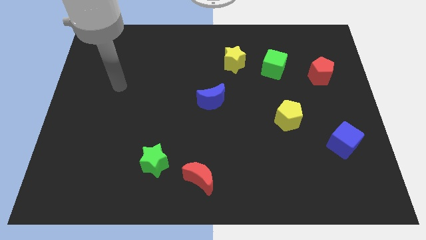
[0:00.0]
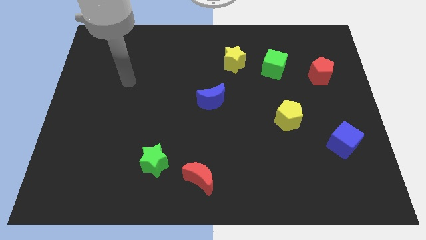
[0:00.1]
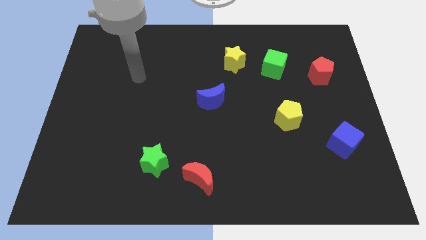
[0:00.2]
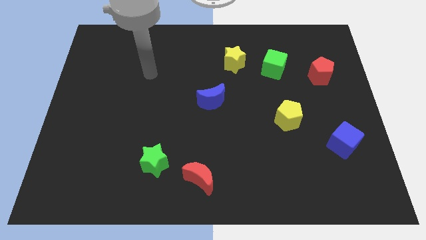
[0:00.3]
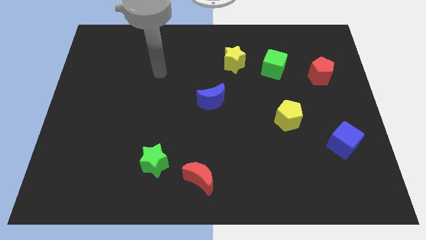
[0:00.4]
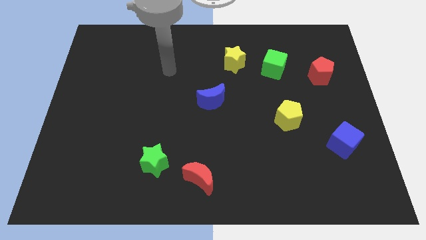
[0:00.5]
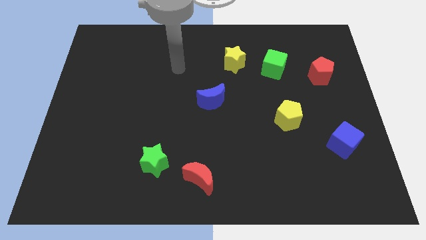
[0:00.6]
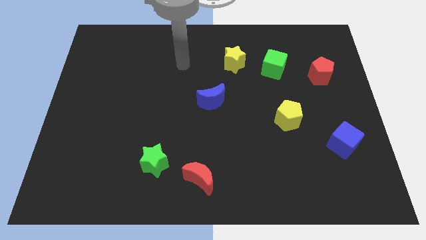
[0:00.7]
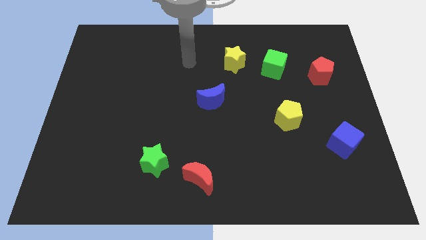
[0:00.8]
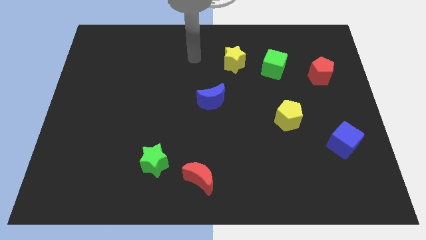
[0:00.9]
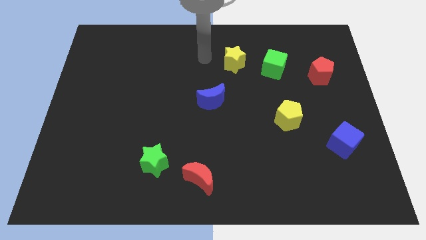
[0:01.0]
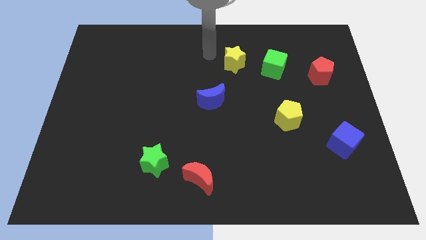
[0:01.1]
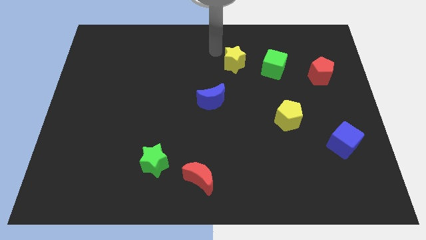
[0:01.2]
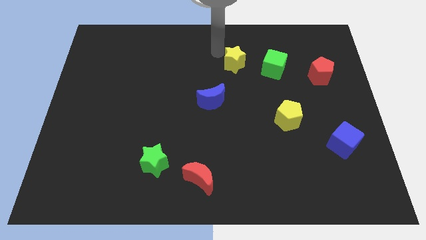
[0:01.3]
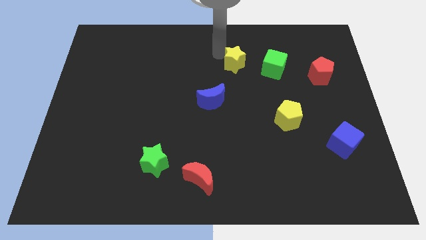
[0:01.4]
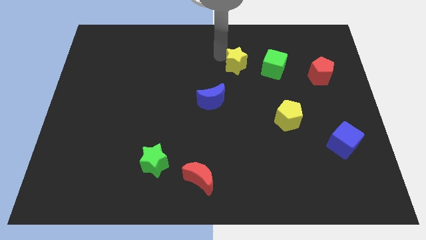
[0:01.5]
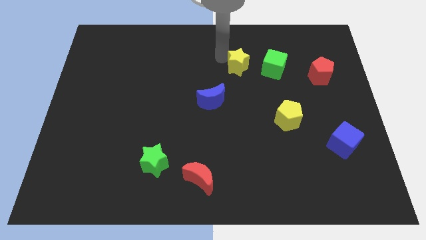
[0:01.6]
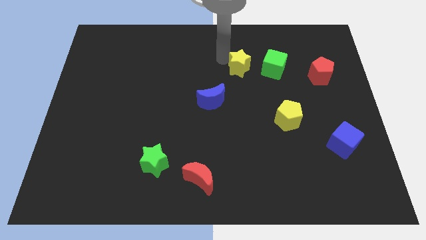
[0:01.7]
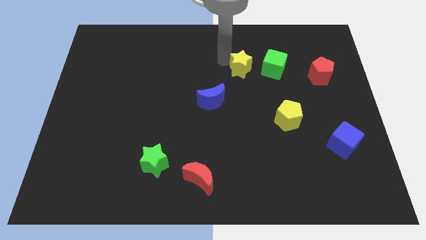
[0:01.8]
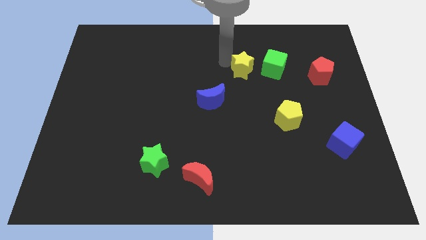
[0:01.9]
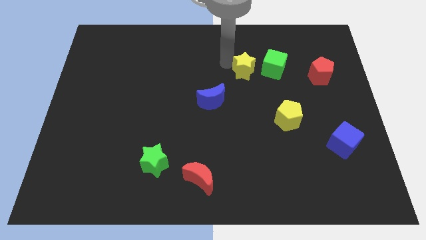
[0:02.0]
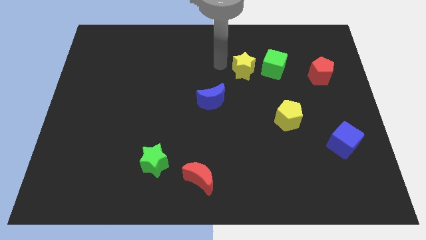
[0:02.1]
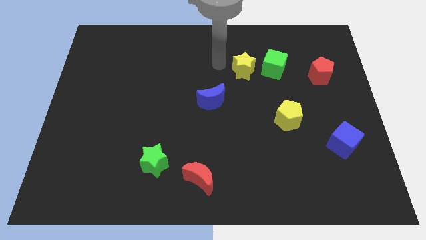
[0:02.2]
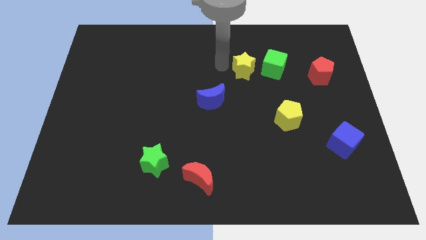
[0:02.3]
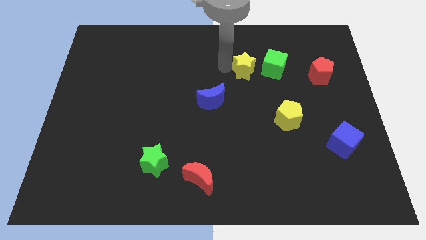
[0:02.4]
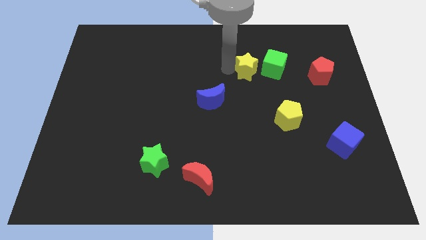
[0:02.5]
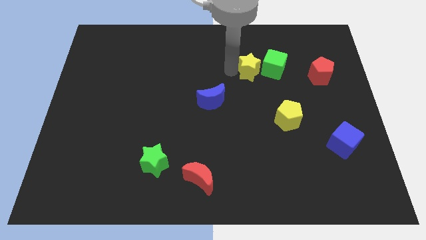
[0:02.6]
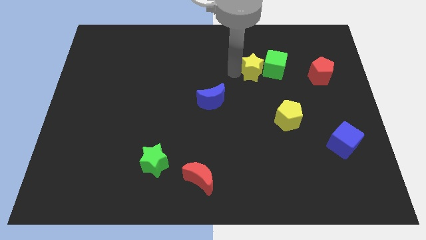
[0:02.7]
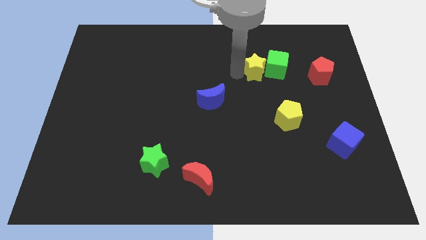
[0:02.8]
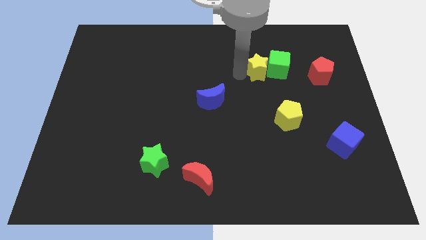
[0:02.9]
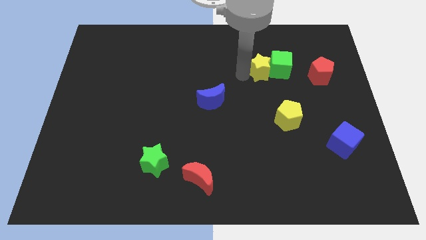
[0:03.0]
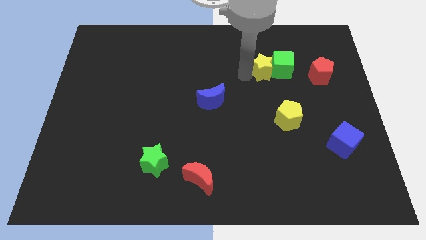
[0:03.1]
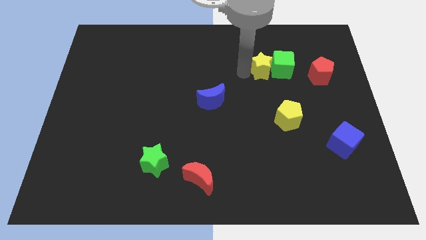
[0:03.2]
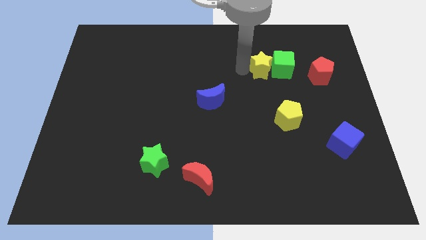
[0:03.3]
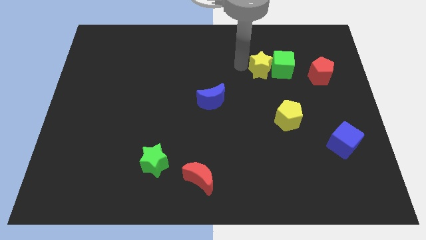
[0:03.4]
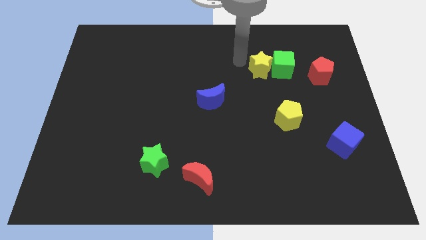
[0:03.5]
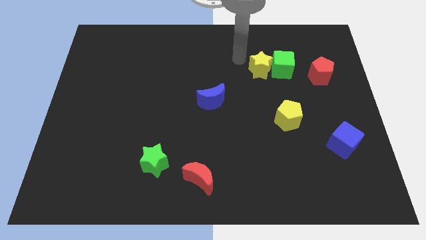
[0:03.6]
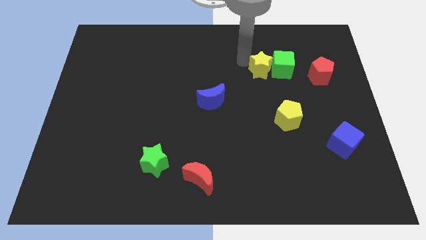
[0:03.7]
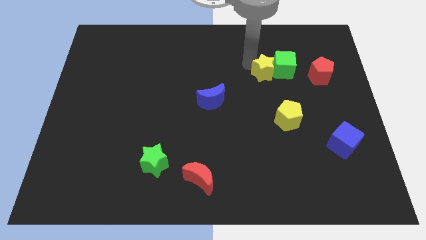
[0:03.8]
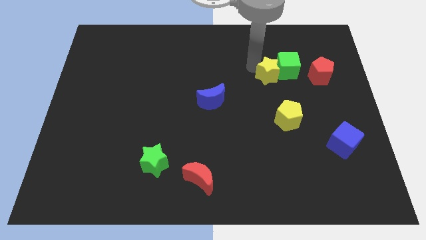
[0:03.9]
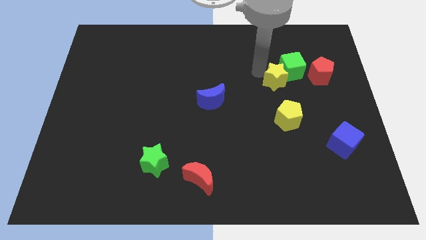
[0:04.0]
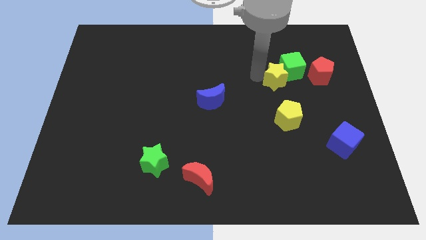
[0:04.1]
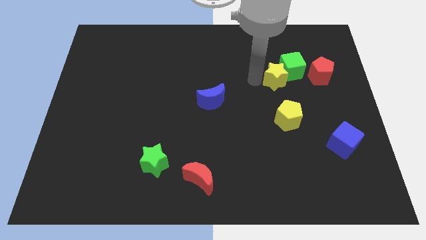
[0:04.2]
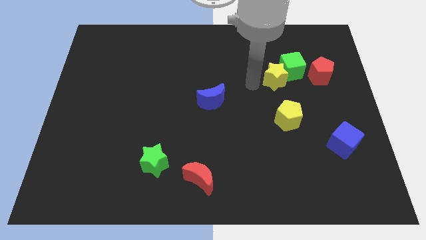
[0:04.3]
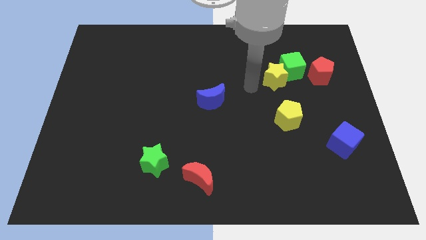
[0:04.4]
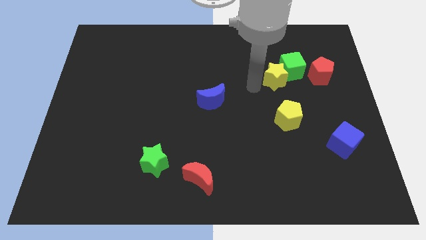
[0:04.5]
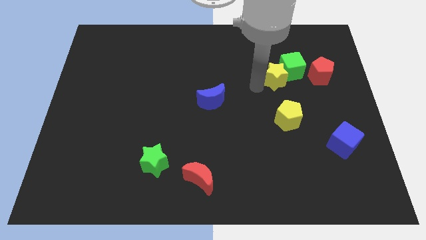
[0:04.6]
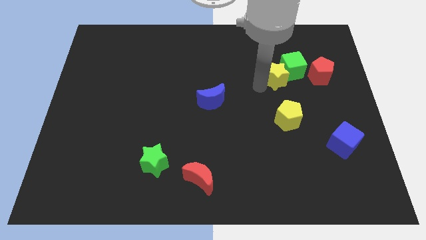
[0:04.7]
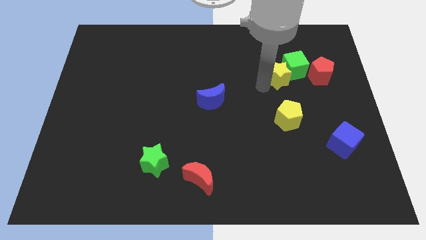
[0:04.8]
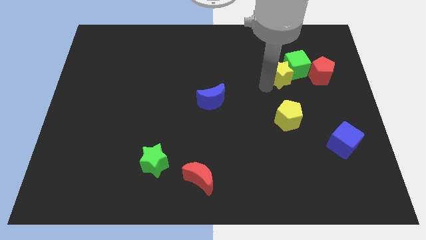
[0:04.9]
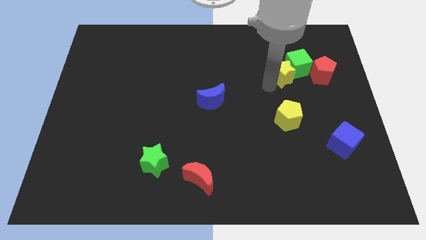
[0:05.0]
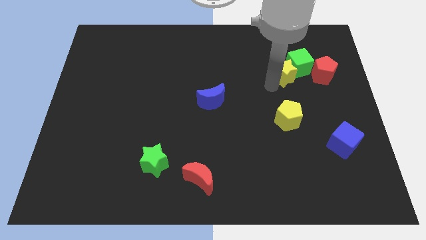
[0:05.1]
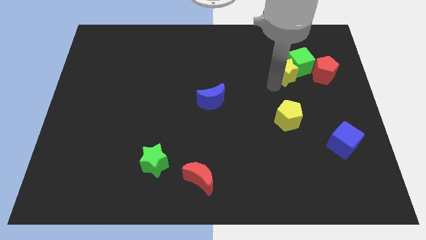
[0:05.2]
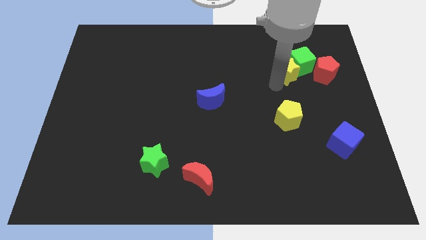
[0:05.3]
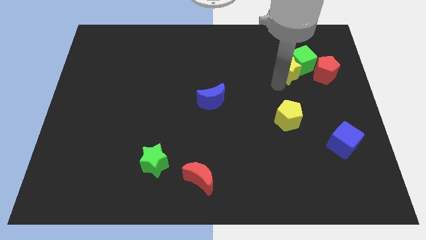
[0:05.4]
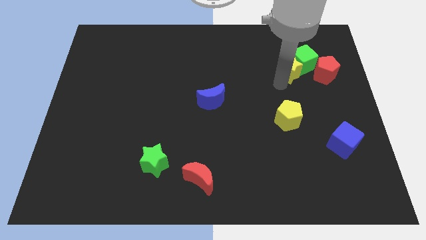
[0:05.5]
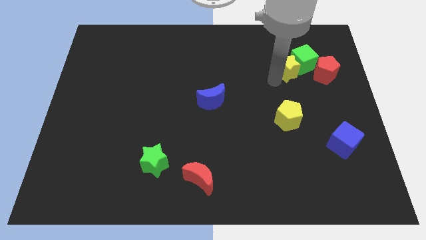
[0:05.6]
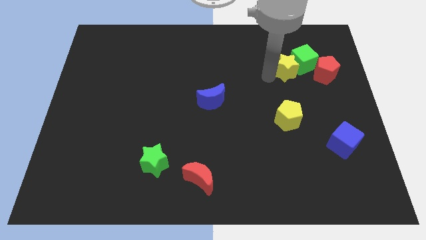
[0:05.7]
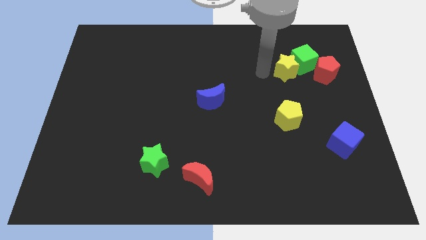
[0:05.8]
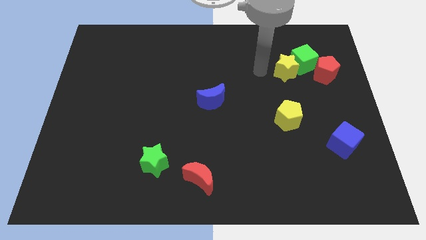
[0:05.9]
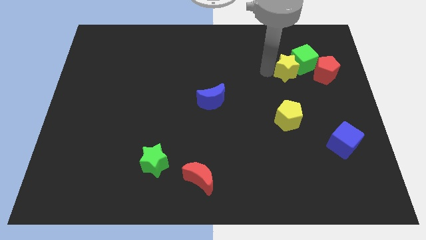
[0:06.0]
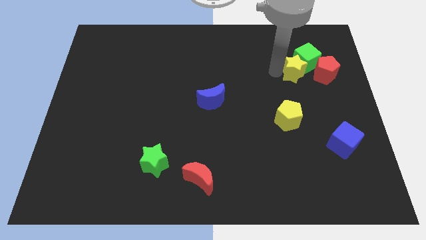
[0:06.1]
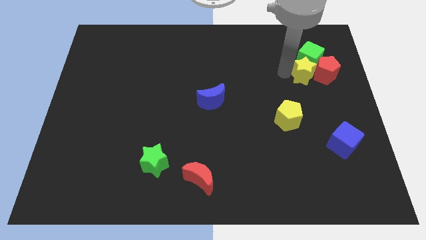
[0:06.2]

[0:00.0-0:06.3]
push the yellow star to the red pentagon

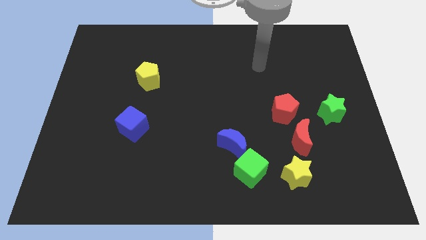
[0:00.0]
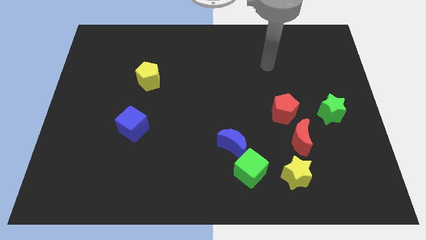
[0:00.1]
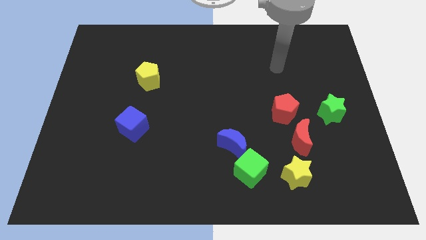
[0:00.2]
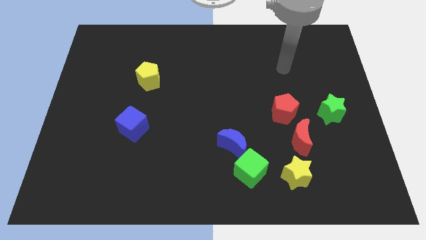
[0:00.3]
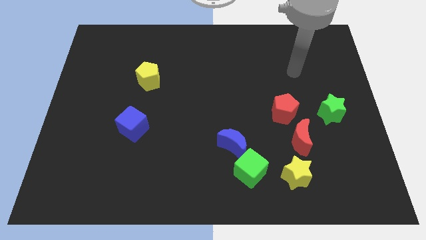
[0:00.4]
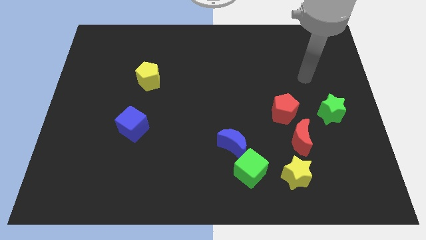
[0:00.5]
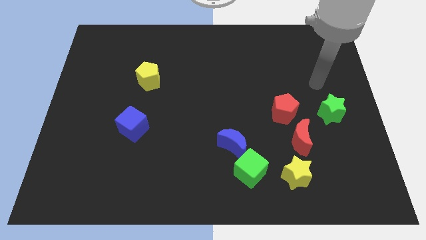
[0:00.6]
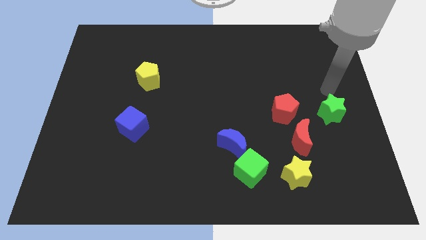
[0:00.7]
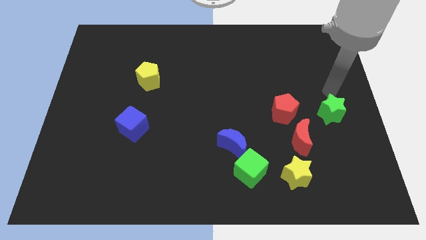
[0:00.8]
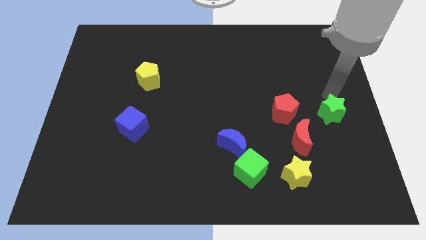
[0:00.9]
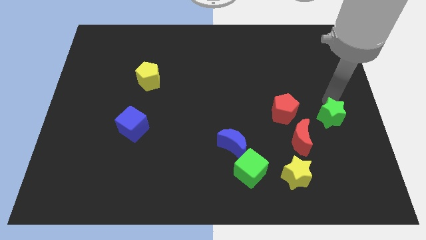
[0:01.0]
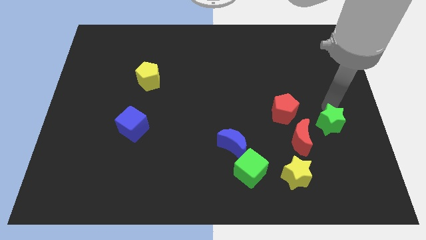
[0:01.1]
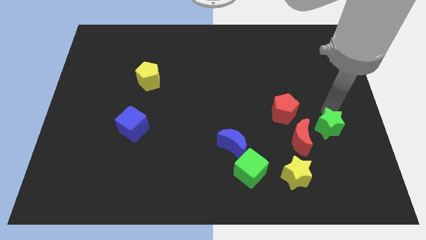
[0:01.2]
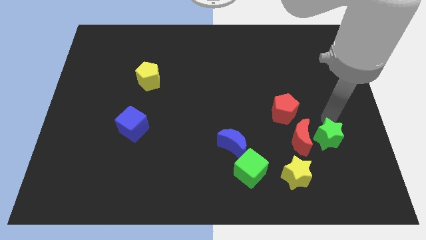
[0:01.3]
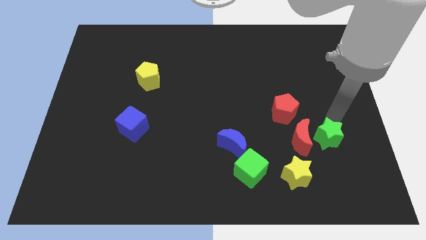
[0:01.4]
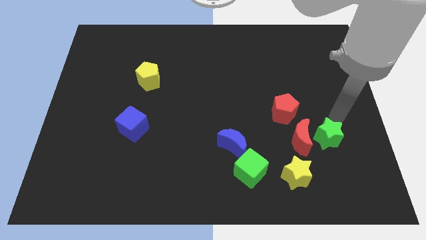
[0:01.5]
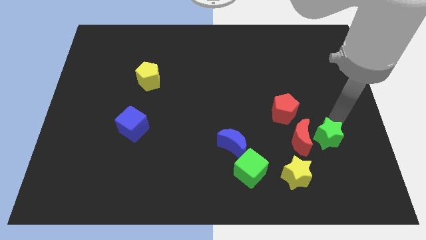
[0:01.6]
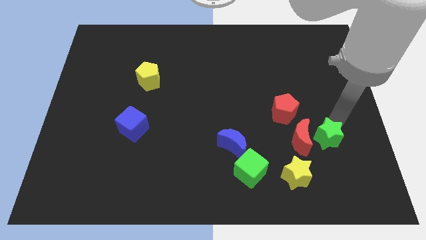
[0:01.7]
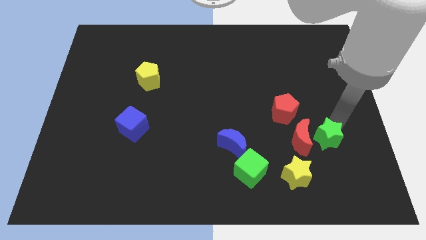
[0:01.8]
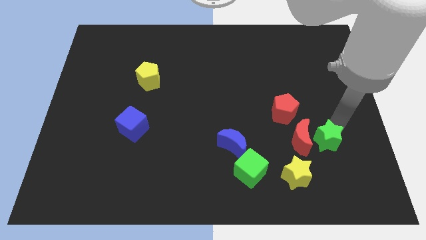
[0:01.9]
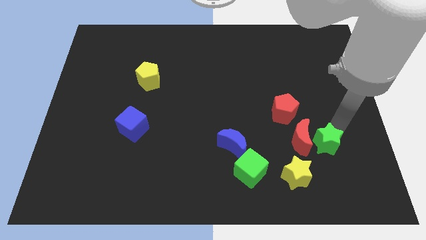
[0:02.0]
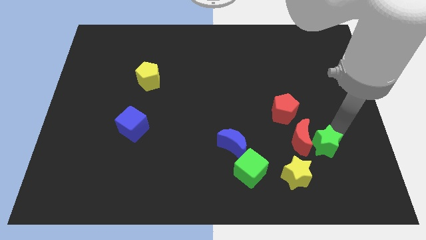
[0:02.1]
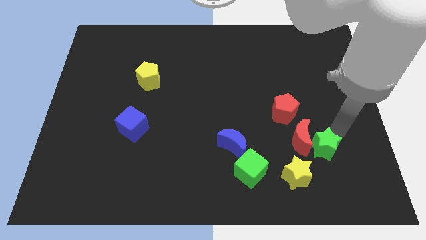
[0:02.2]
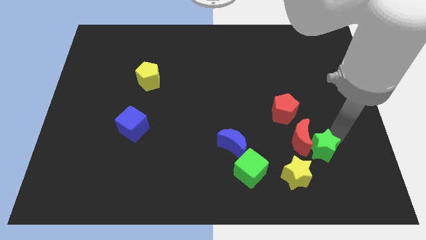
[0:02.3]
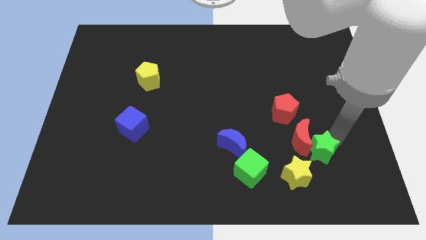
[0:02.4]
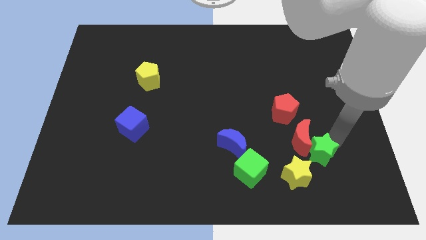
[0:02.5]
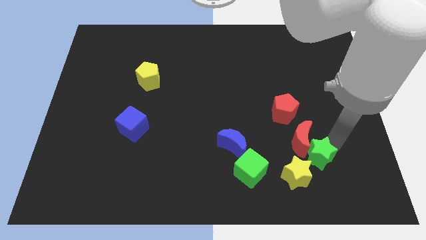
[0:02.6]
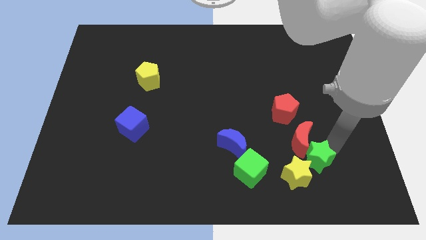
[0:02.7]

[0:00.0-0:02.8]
slide the green star towards the yellow star
